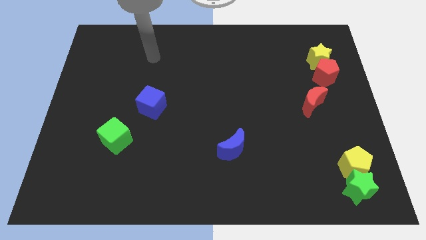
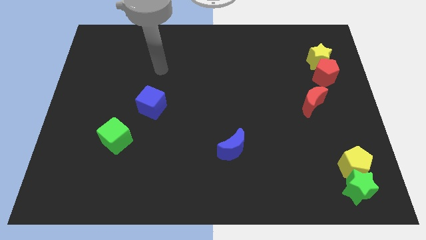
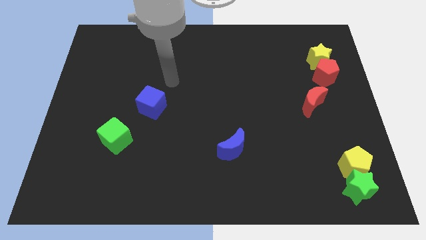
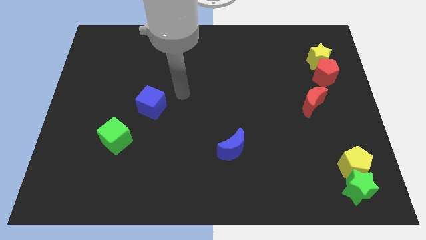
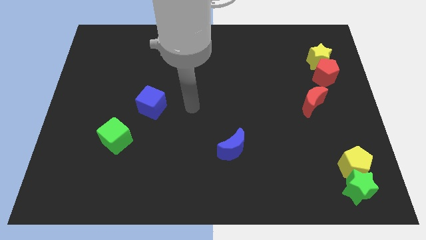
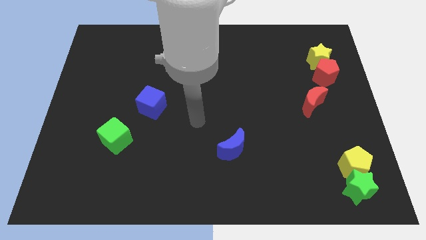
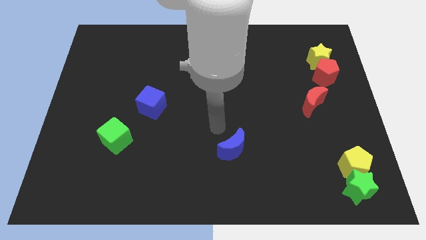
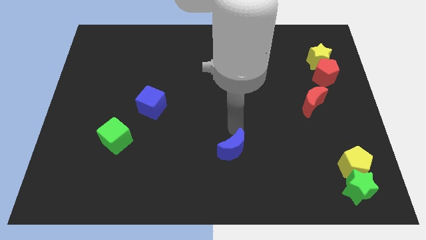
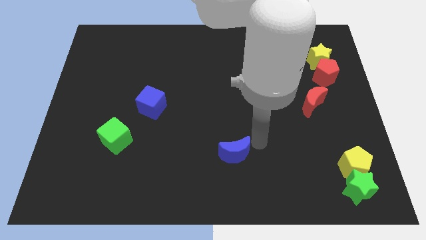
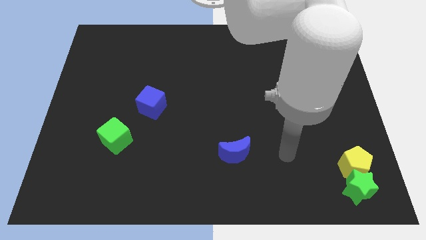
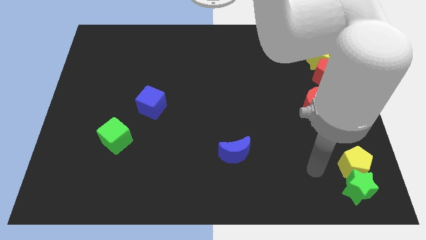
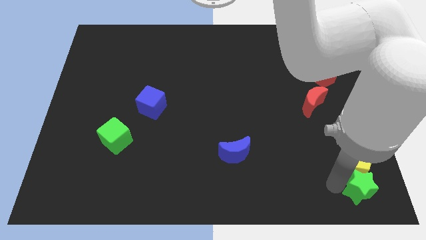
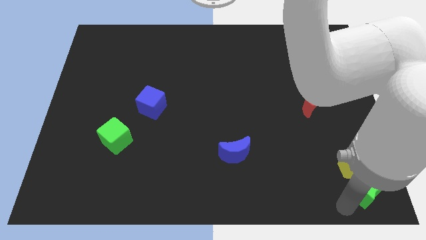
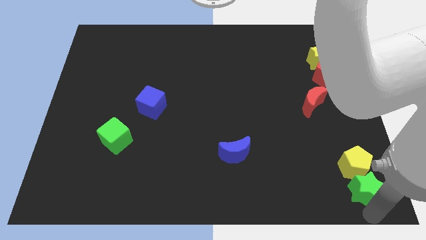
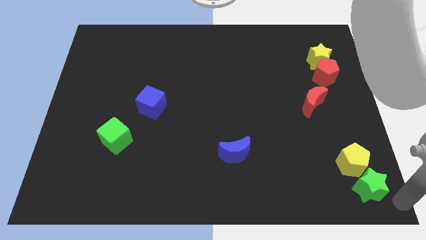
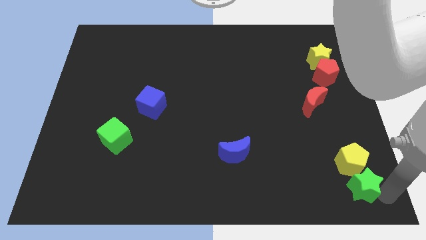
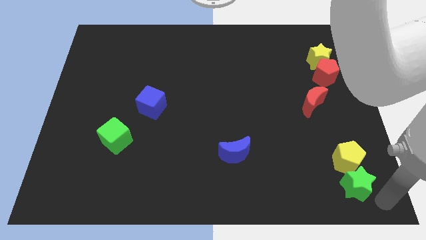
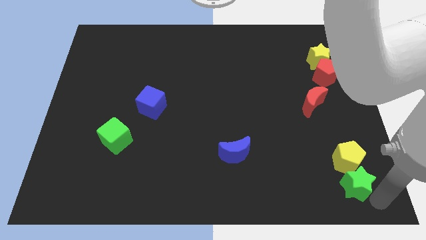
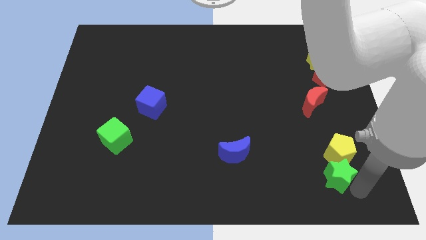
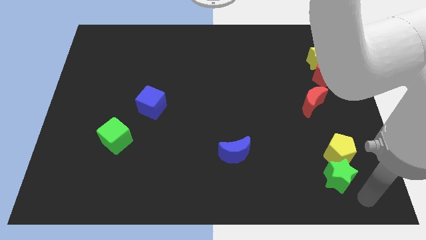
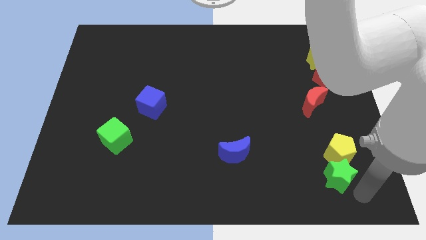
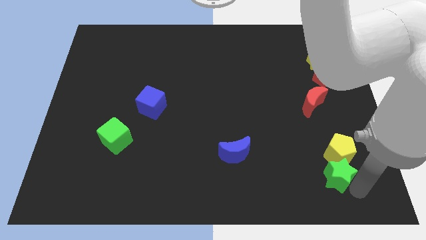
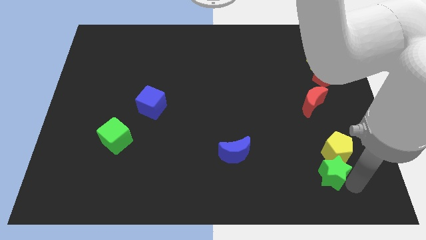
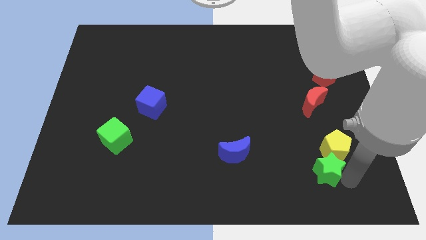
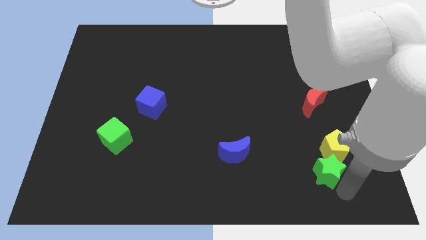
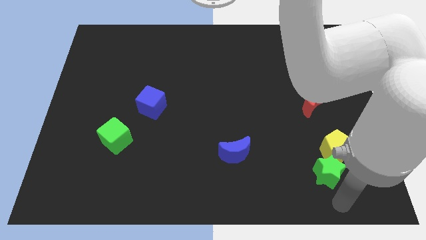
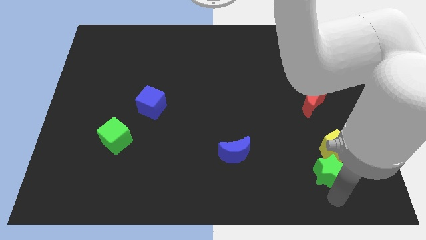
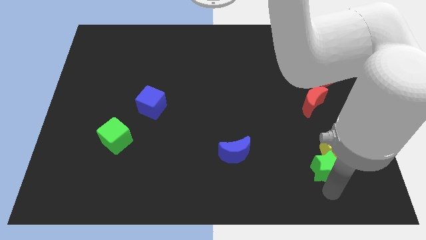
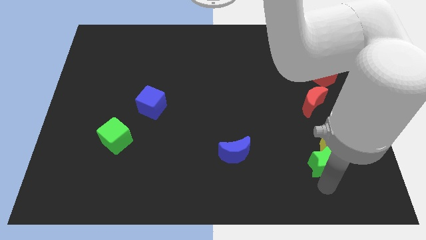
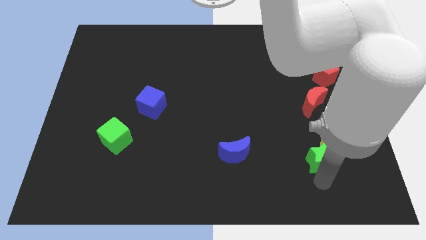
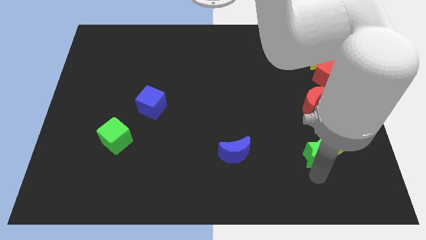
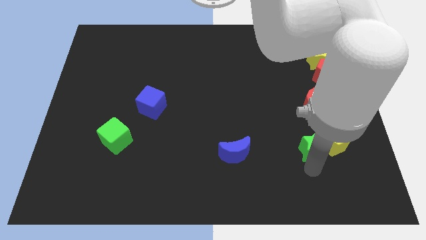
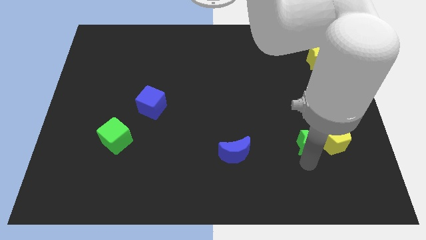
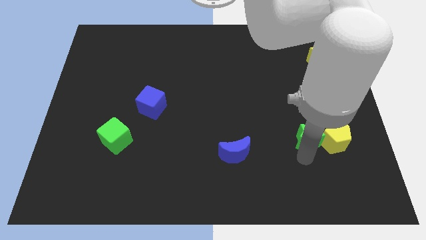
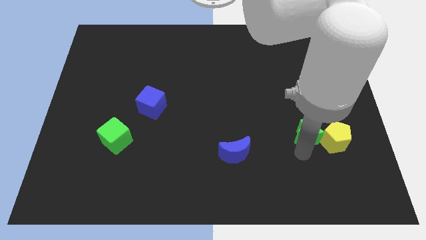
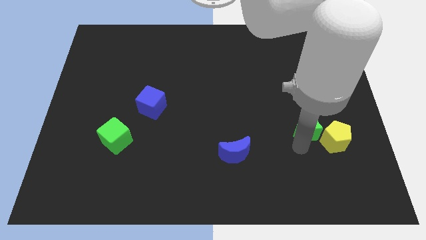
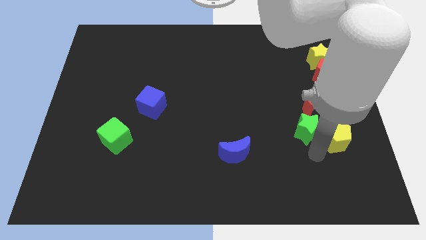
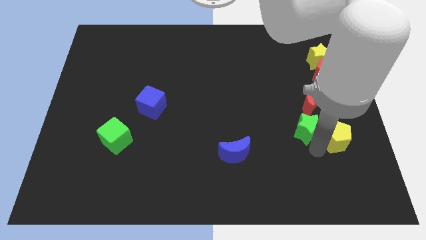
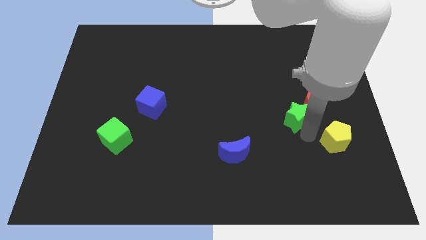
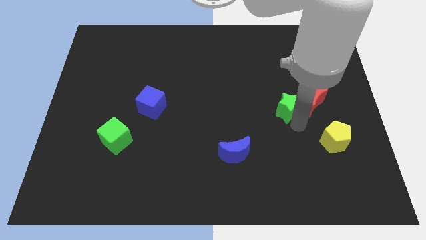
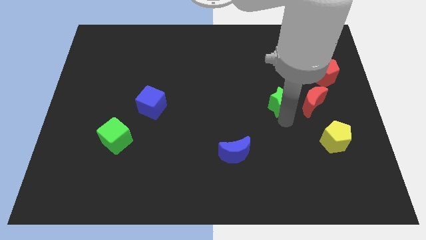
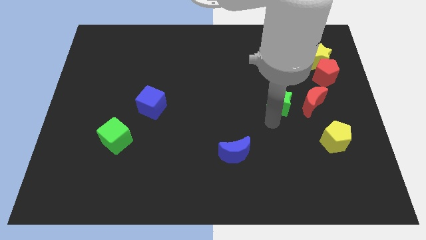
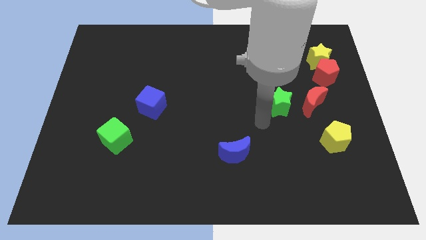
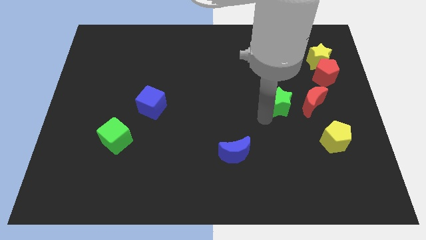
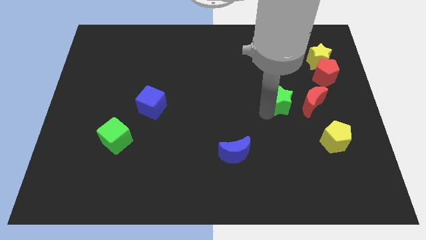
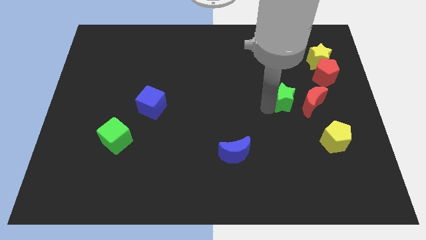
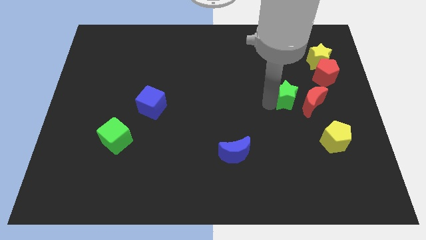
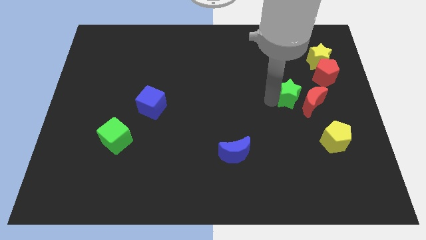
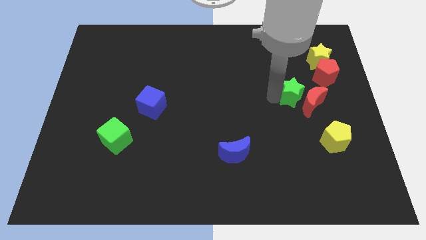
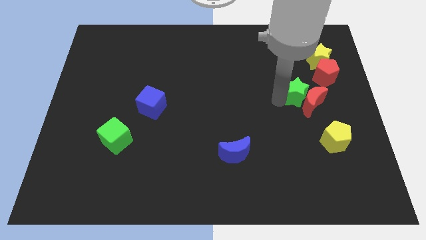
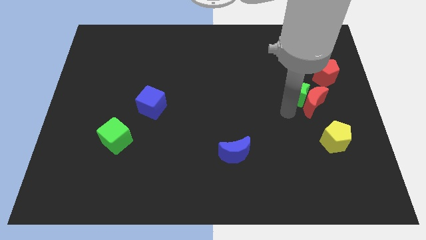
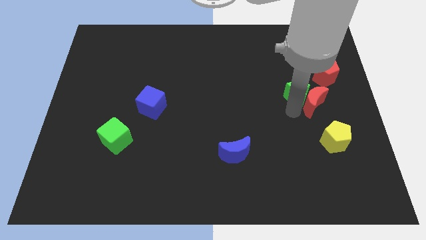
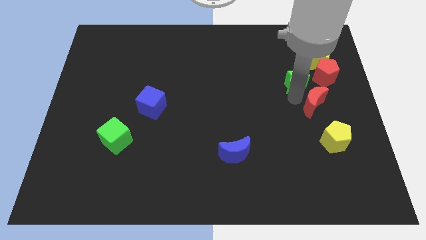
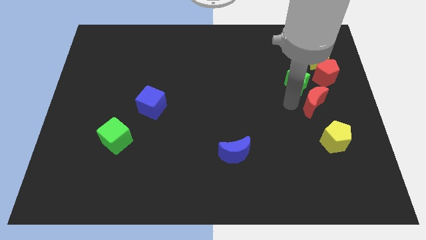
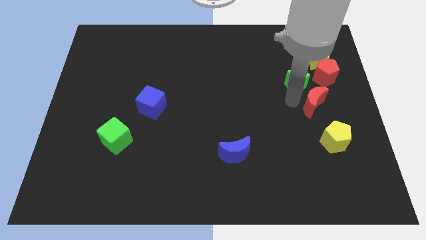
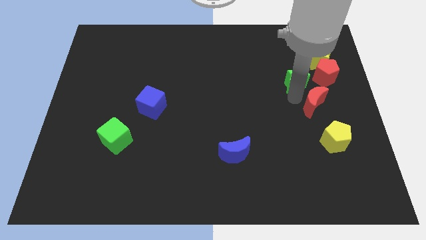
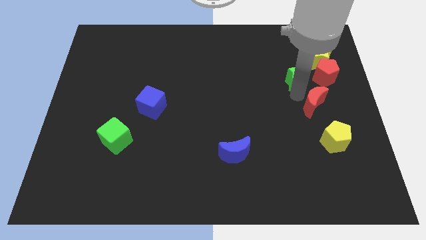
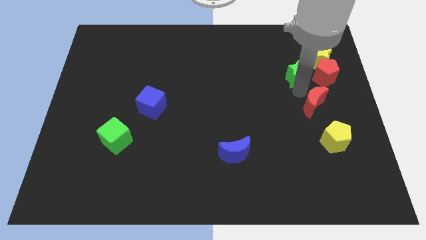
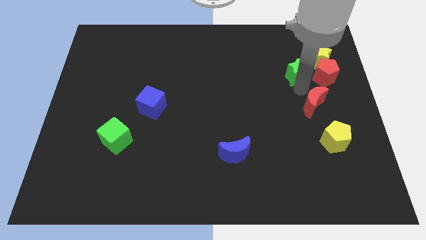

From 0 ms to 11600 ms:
slide the green star to the top left of the red pentagon
